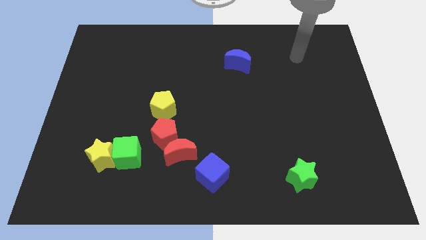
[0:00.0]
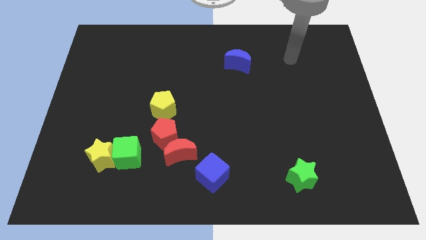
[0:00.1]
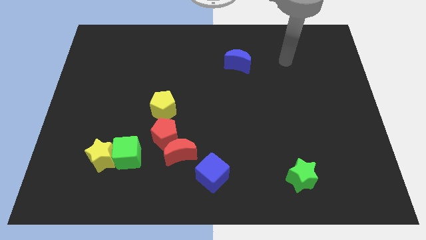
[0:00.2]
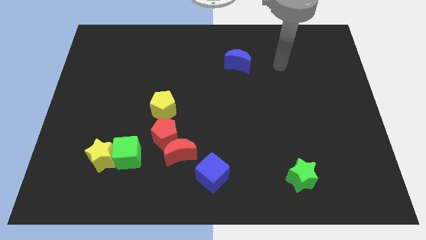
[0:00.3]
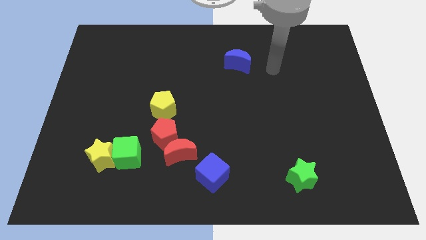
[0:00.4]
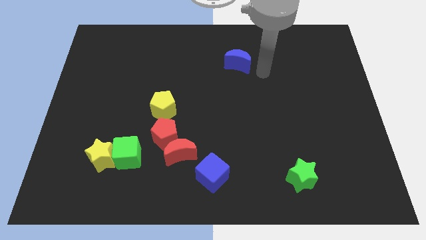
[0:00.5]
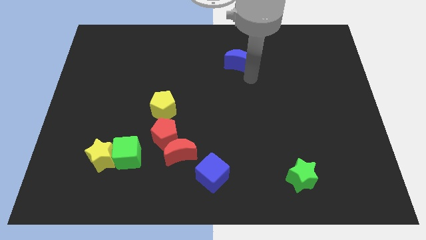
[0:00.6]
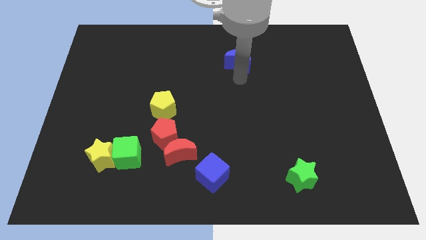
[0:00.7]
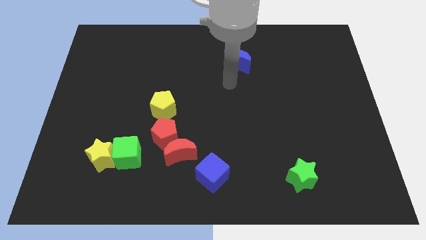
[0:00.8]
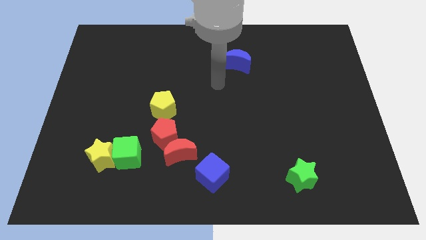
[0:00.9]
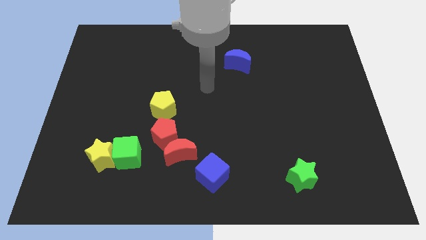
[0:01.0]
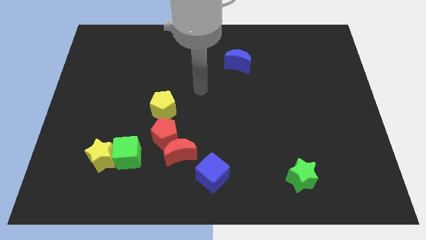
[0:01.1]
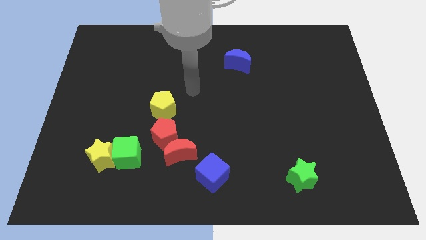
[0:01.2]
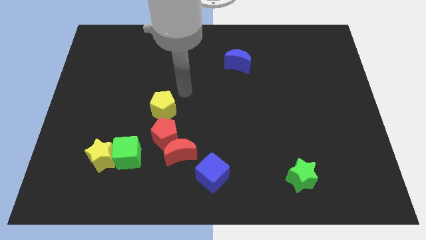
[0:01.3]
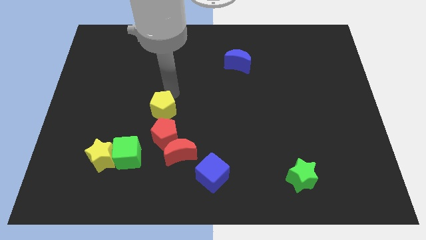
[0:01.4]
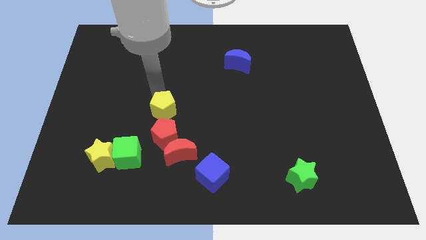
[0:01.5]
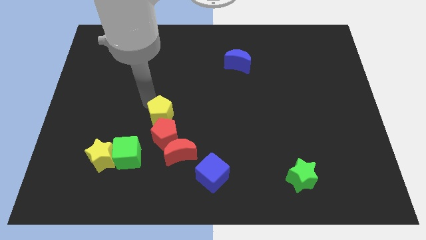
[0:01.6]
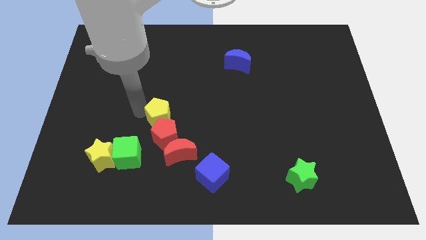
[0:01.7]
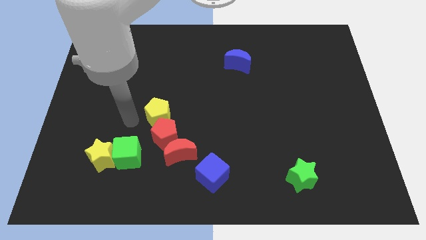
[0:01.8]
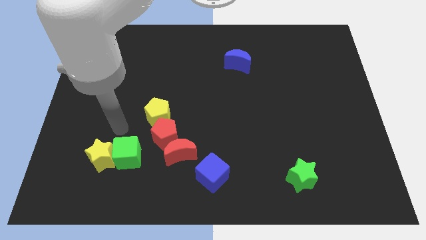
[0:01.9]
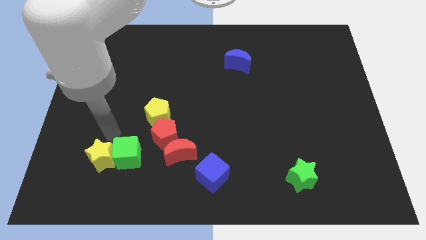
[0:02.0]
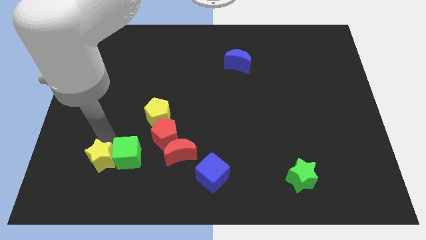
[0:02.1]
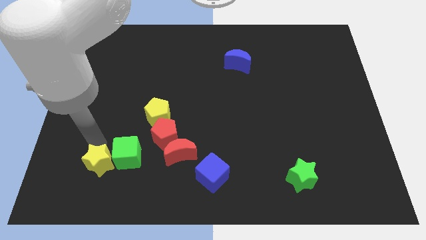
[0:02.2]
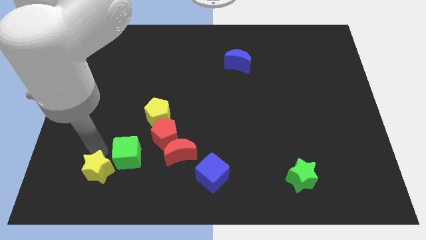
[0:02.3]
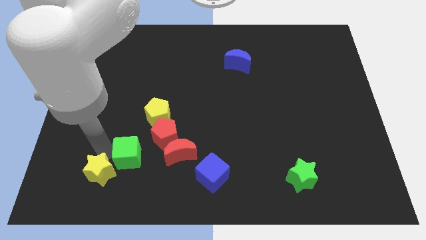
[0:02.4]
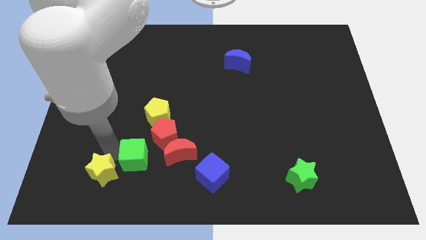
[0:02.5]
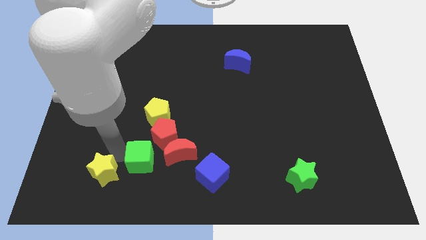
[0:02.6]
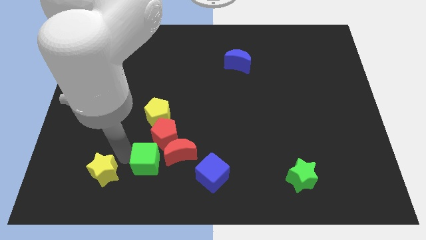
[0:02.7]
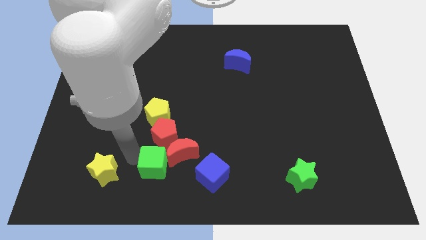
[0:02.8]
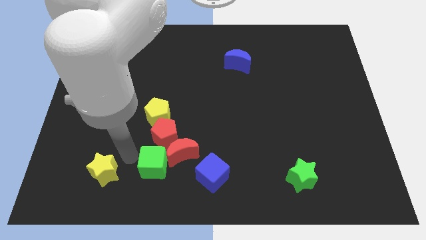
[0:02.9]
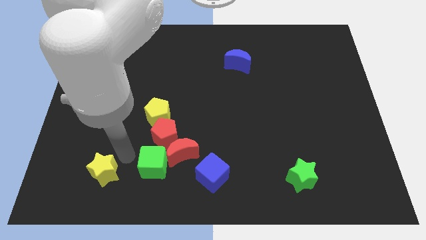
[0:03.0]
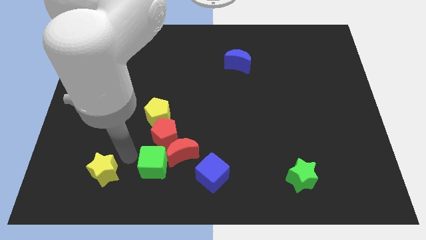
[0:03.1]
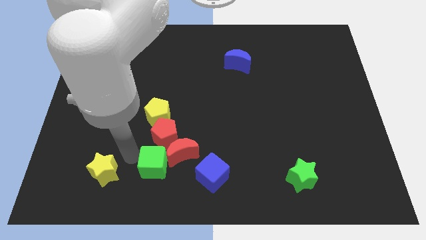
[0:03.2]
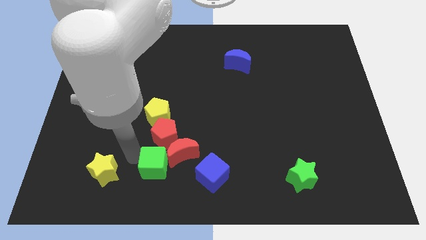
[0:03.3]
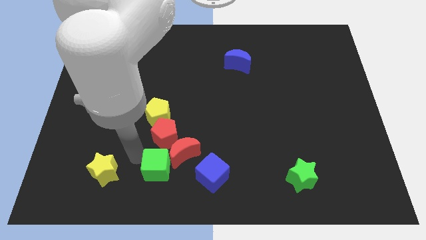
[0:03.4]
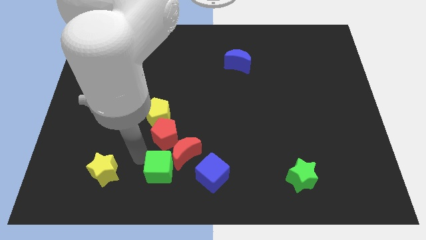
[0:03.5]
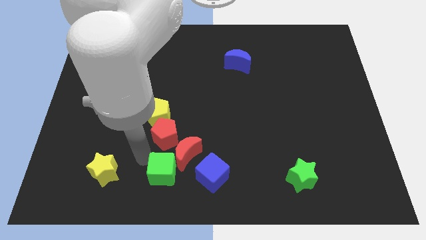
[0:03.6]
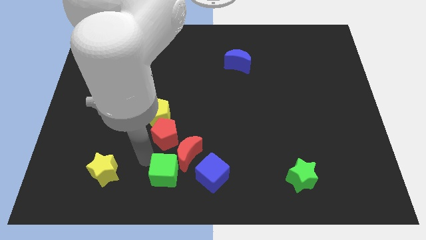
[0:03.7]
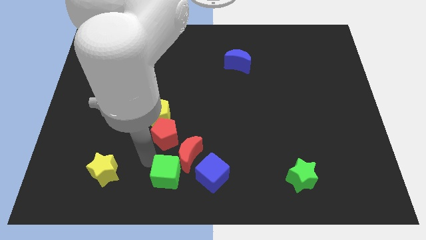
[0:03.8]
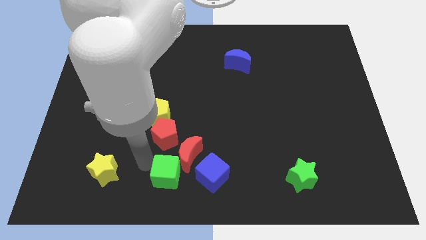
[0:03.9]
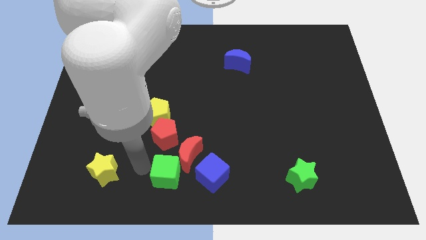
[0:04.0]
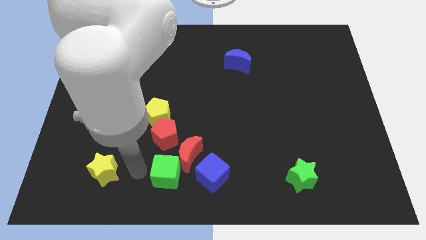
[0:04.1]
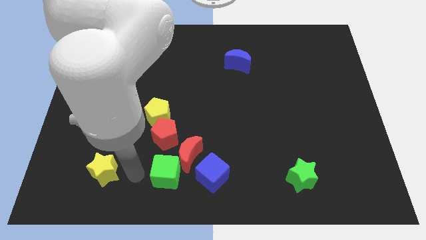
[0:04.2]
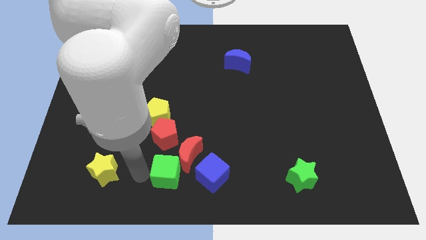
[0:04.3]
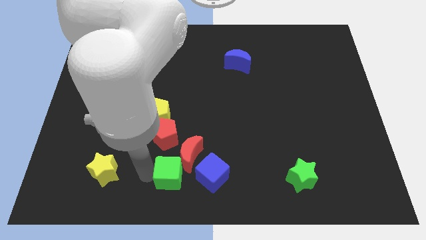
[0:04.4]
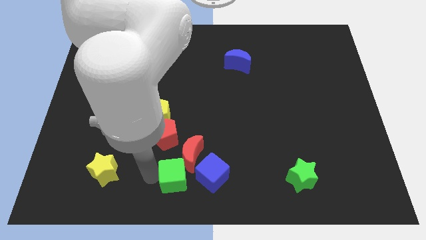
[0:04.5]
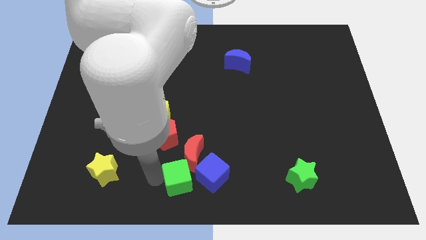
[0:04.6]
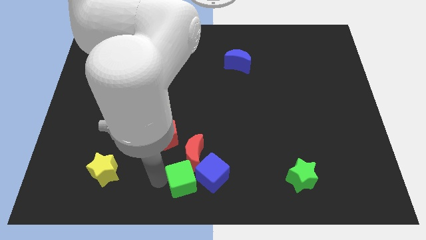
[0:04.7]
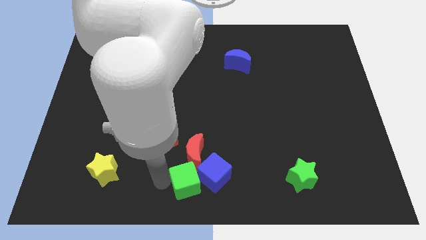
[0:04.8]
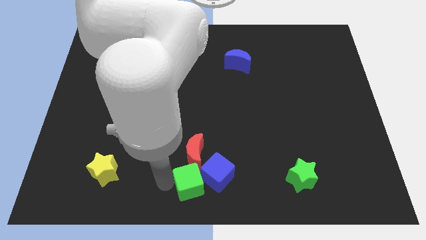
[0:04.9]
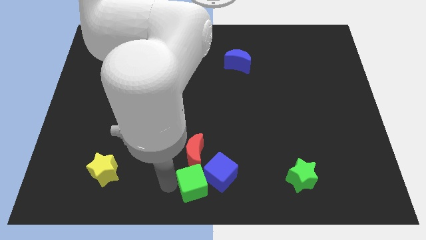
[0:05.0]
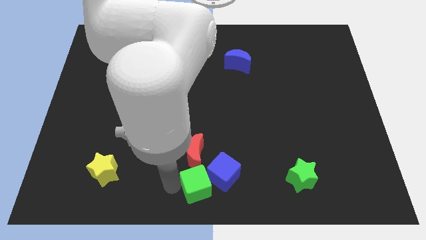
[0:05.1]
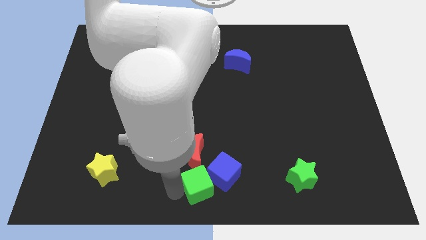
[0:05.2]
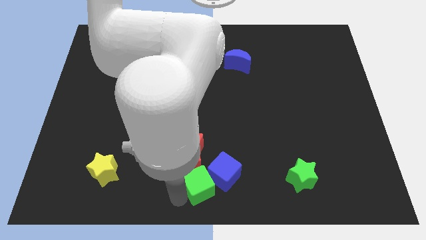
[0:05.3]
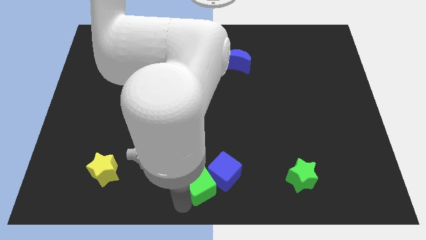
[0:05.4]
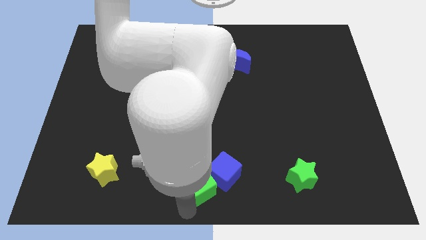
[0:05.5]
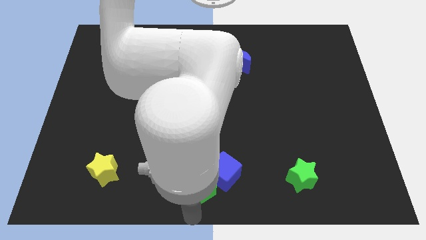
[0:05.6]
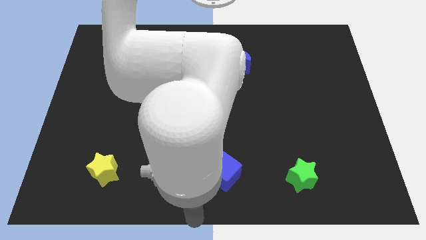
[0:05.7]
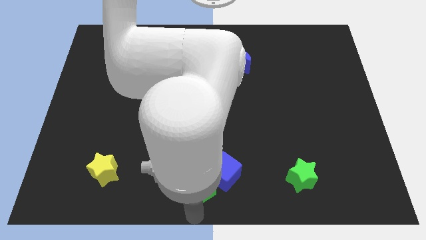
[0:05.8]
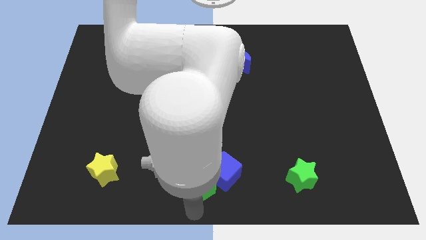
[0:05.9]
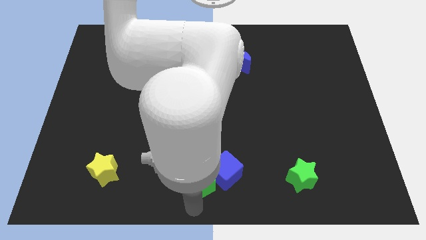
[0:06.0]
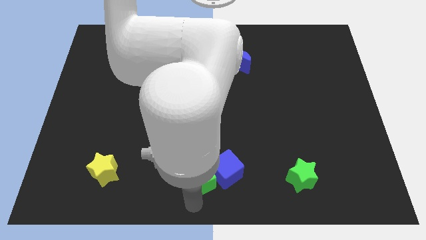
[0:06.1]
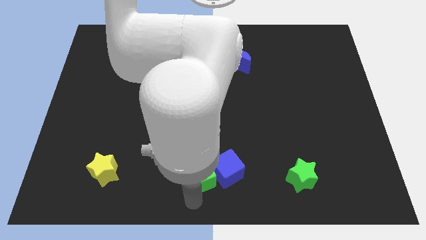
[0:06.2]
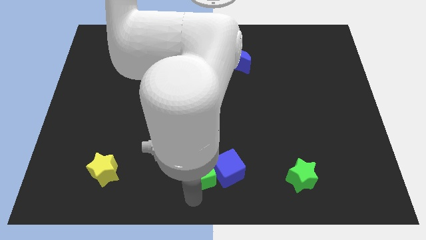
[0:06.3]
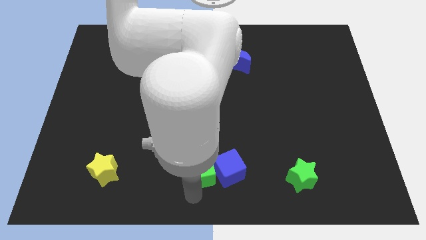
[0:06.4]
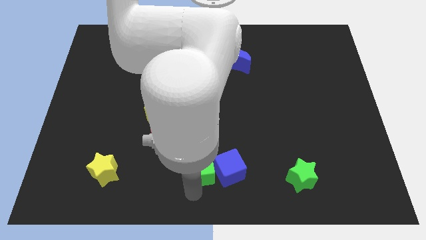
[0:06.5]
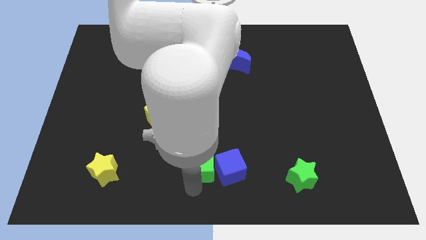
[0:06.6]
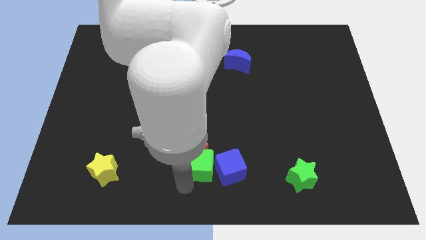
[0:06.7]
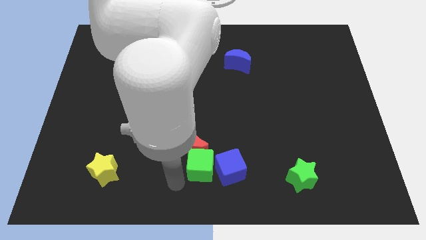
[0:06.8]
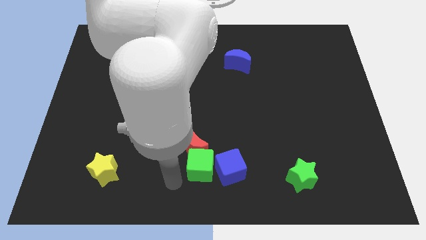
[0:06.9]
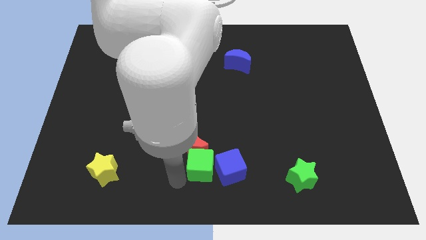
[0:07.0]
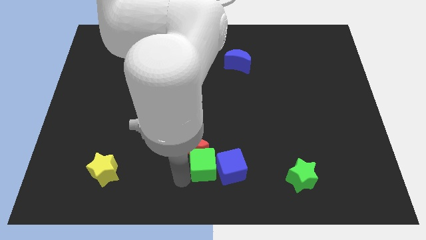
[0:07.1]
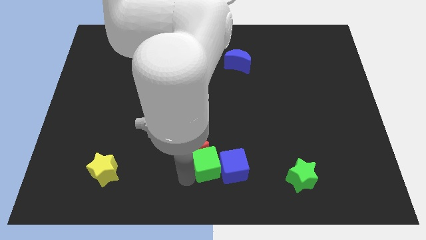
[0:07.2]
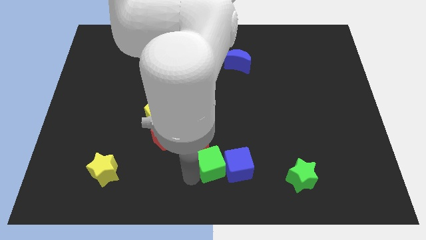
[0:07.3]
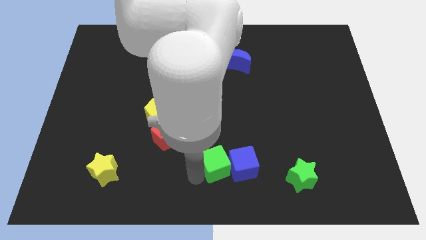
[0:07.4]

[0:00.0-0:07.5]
put the green cube right of the red moon
